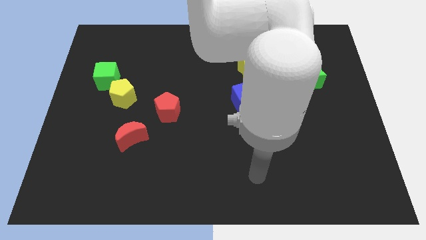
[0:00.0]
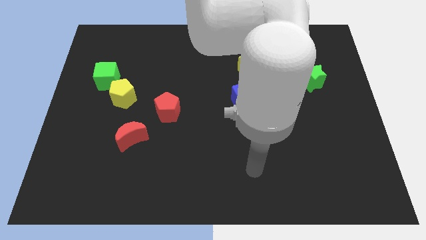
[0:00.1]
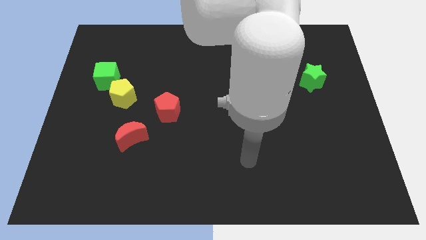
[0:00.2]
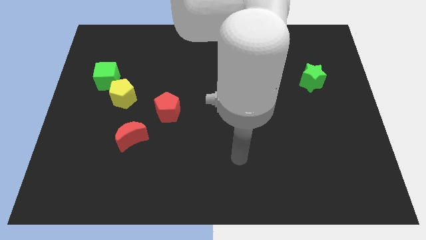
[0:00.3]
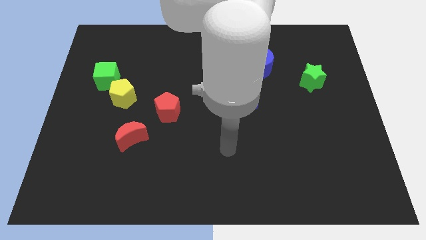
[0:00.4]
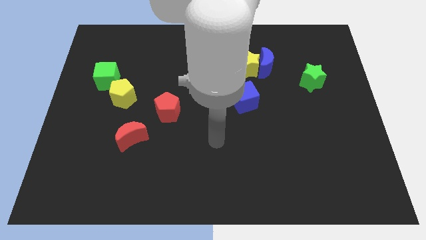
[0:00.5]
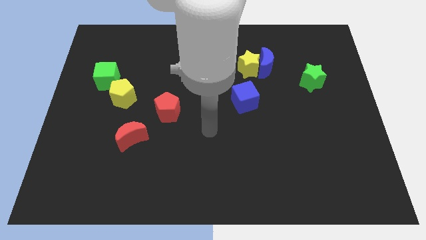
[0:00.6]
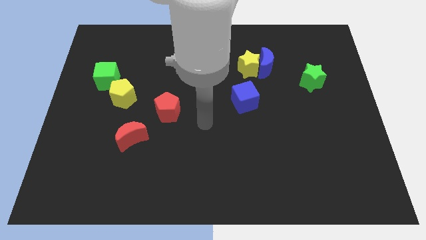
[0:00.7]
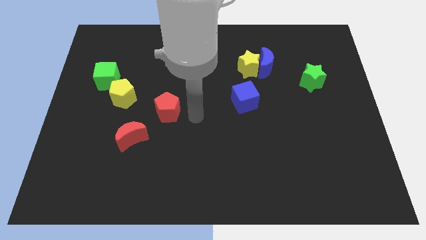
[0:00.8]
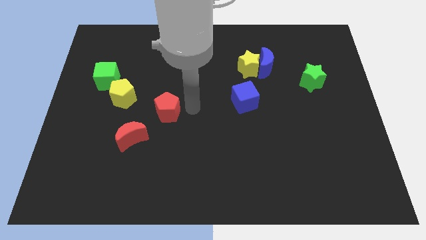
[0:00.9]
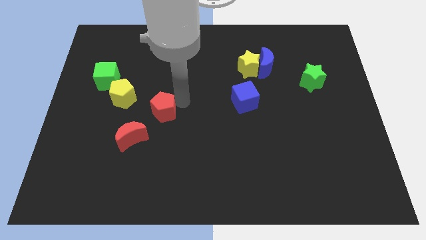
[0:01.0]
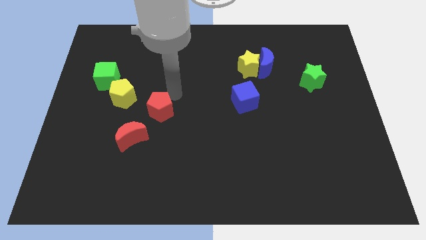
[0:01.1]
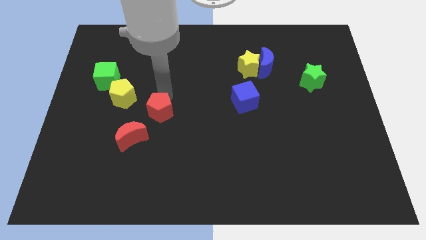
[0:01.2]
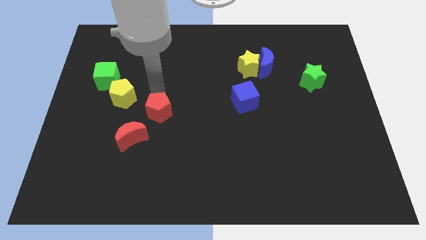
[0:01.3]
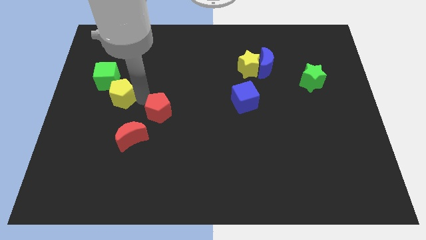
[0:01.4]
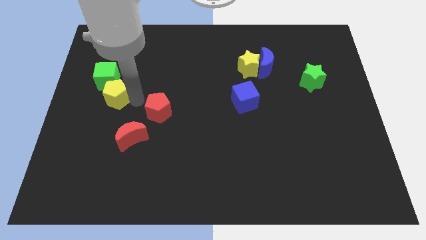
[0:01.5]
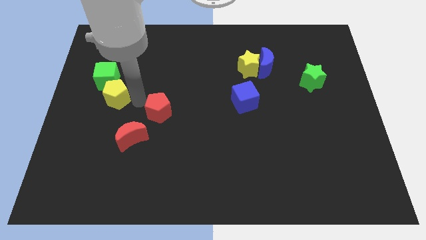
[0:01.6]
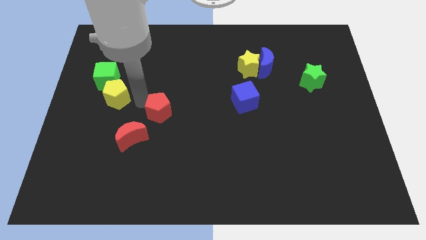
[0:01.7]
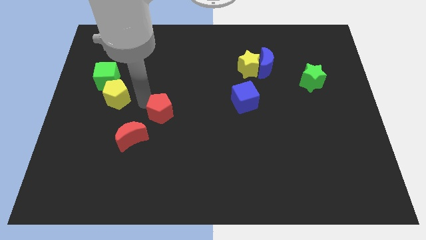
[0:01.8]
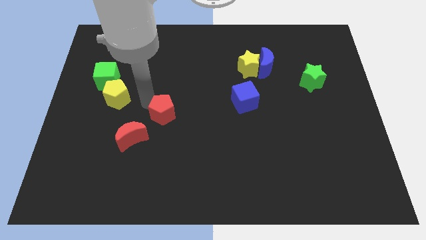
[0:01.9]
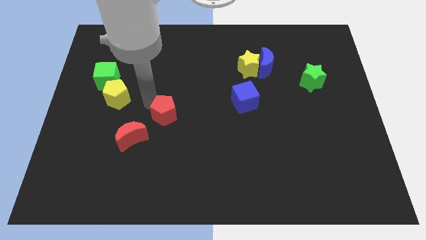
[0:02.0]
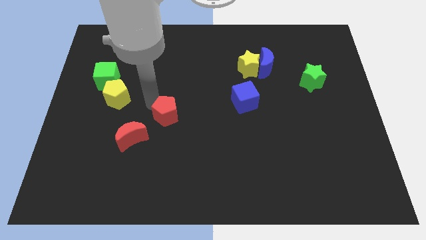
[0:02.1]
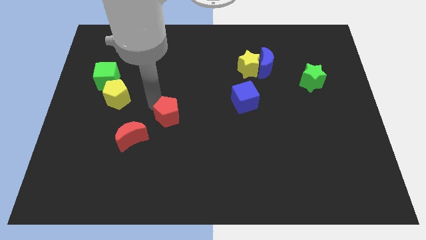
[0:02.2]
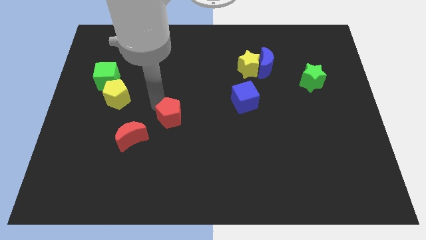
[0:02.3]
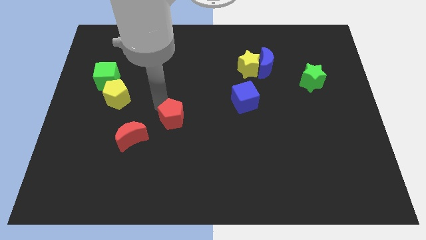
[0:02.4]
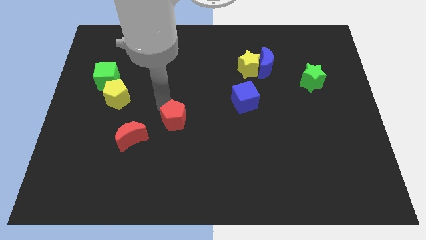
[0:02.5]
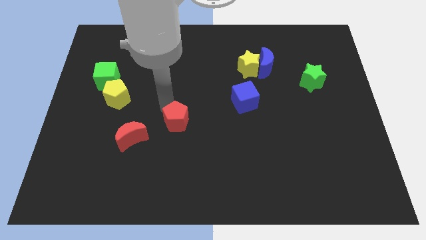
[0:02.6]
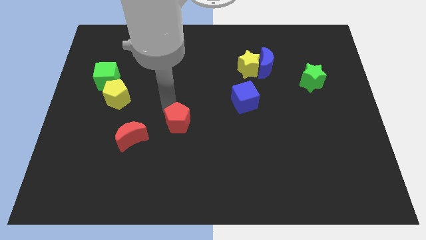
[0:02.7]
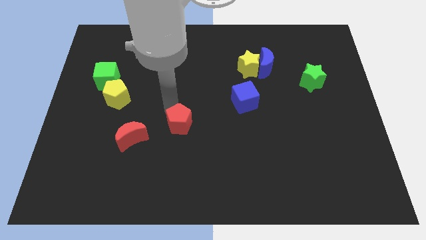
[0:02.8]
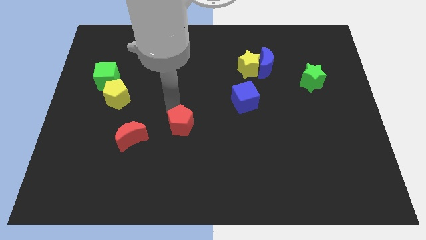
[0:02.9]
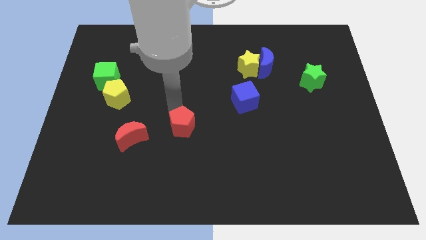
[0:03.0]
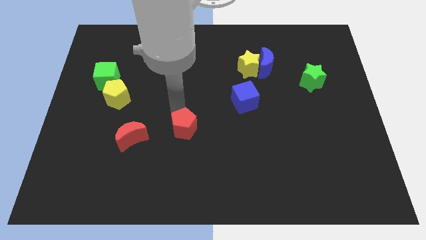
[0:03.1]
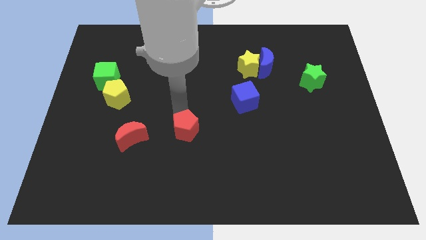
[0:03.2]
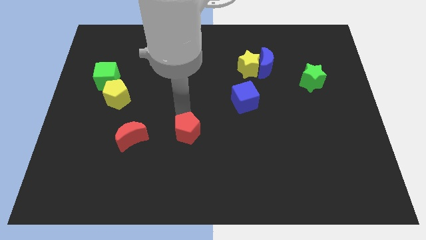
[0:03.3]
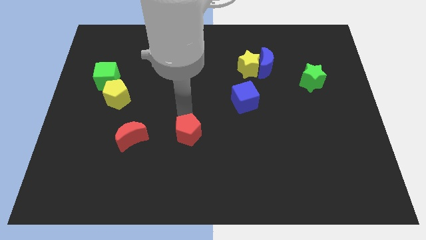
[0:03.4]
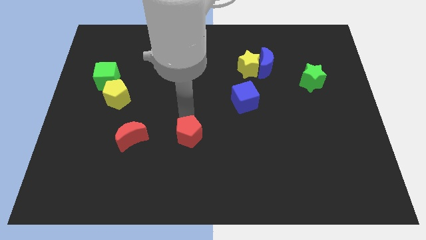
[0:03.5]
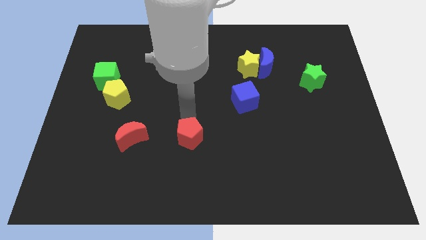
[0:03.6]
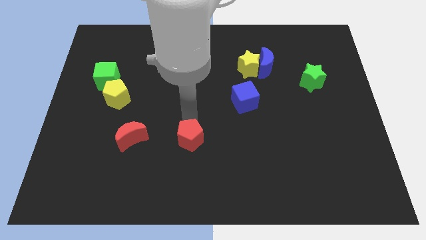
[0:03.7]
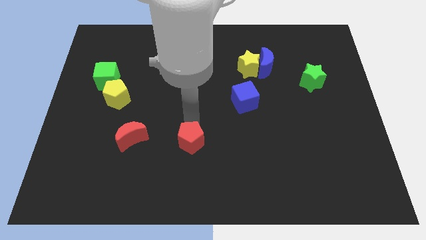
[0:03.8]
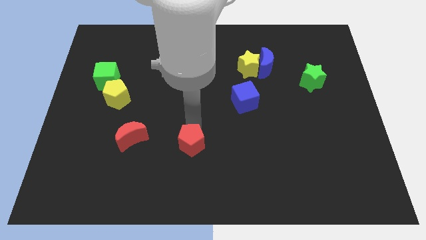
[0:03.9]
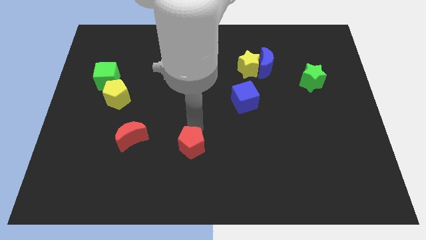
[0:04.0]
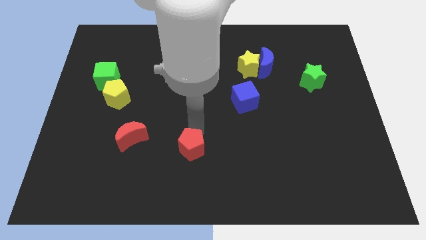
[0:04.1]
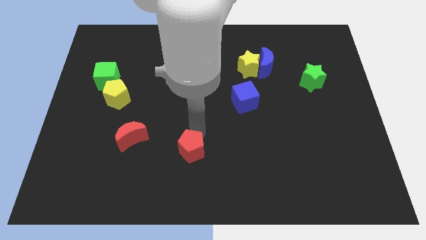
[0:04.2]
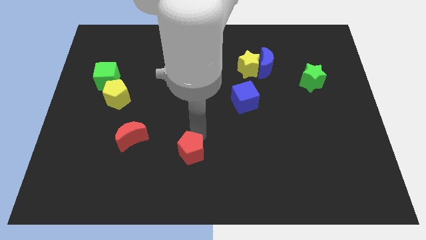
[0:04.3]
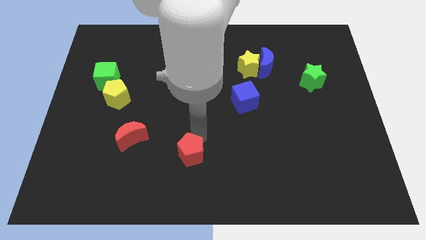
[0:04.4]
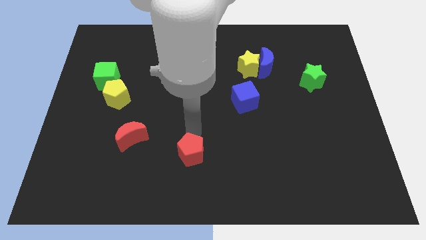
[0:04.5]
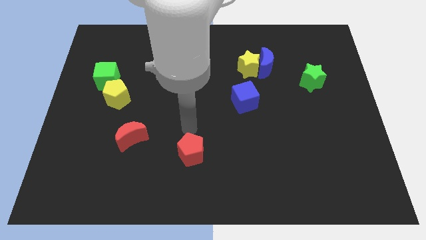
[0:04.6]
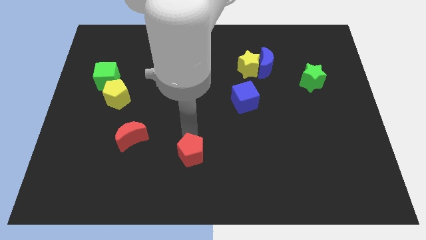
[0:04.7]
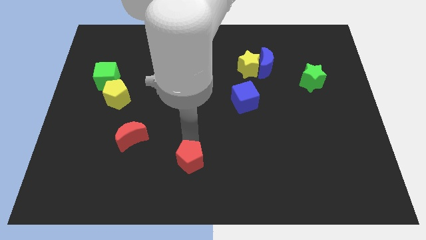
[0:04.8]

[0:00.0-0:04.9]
move the red pentagon to the bottom side

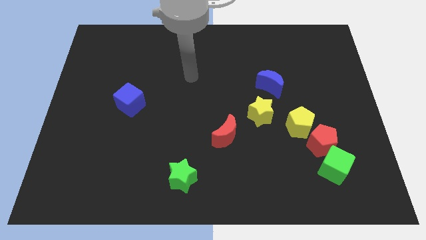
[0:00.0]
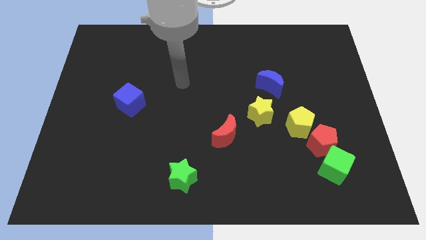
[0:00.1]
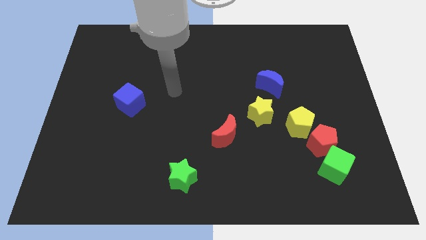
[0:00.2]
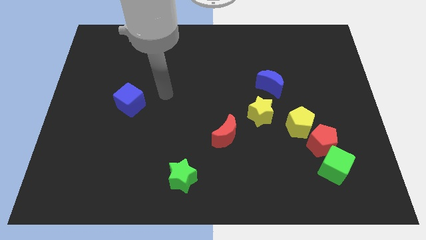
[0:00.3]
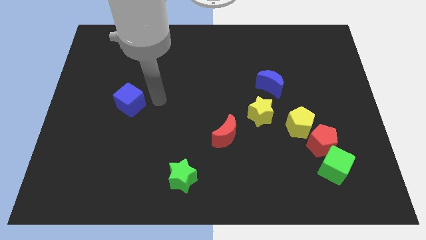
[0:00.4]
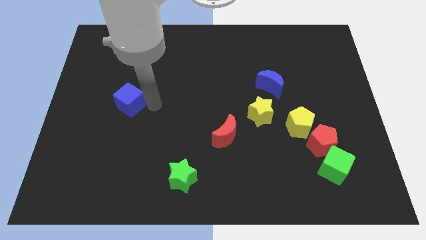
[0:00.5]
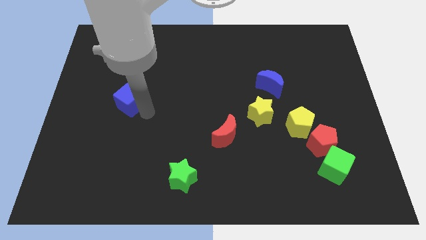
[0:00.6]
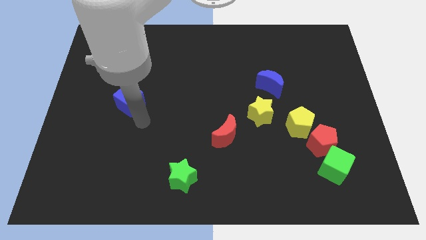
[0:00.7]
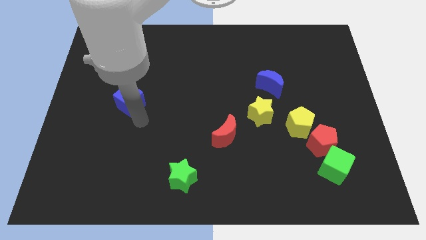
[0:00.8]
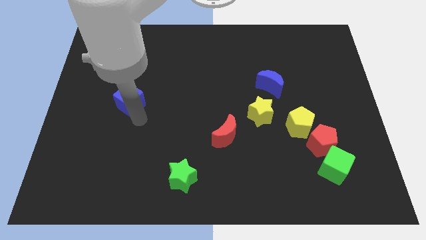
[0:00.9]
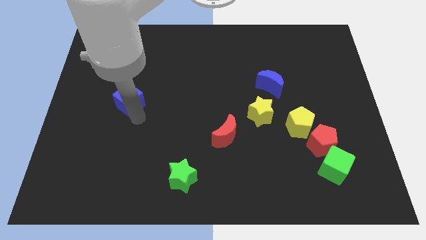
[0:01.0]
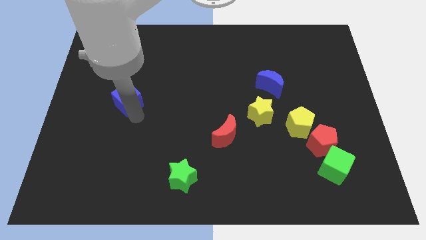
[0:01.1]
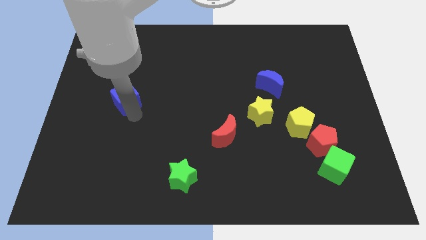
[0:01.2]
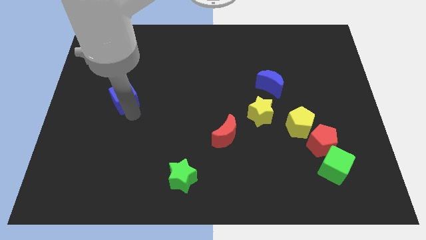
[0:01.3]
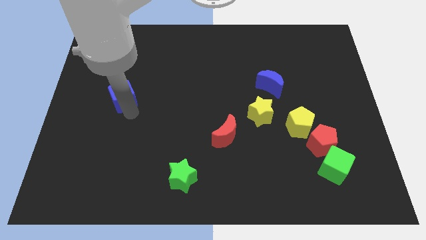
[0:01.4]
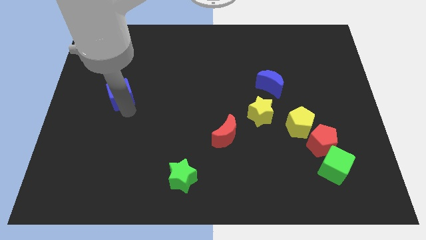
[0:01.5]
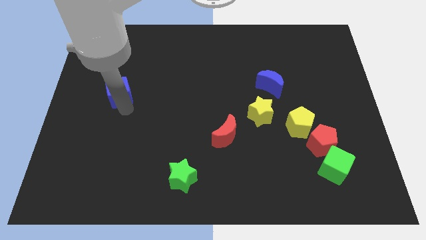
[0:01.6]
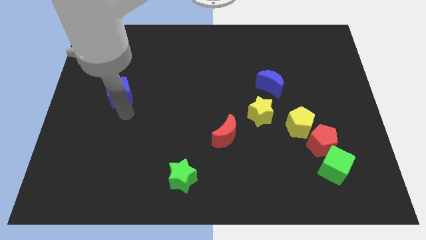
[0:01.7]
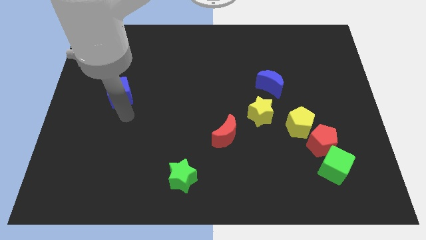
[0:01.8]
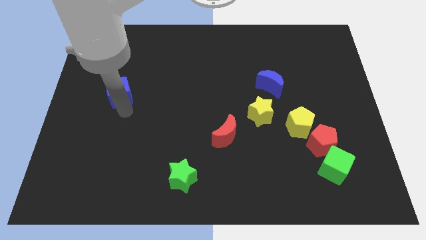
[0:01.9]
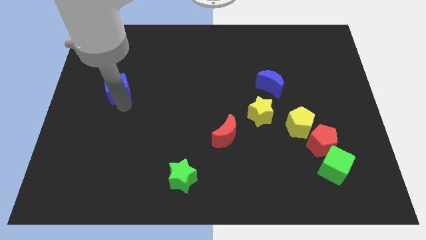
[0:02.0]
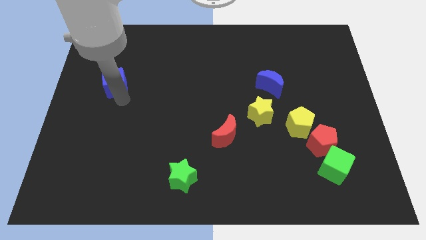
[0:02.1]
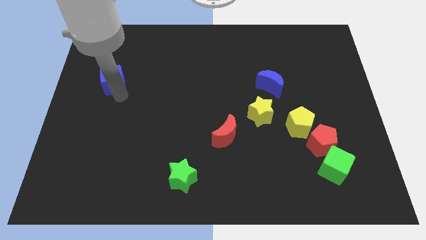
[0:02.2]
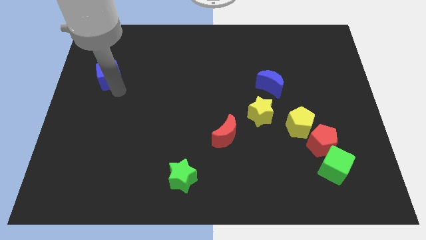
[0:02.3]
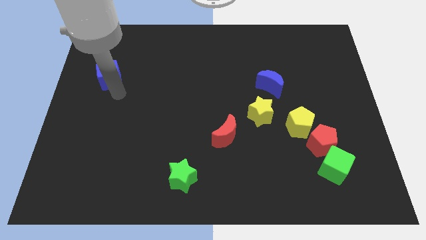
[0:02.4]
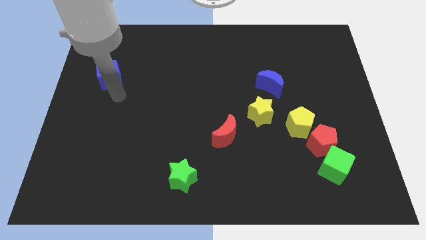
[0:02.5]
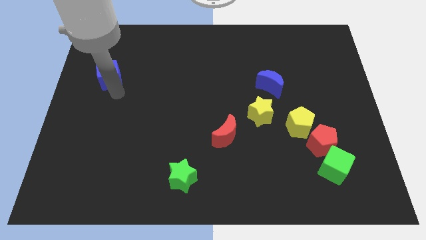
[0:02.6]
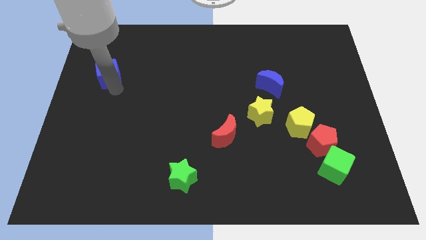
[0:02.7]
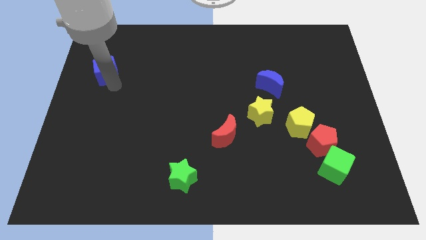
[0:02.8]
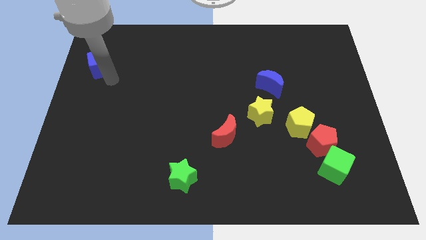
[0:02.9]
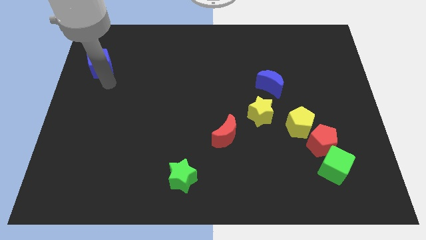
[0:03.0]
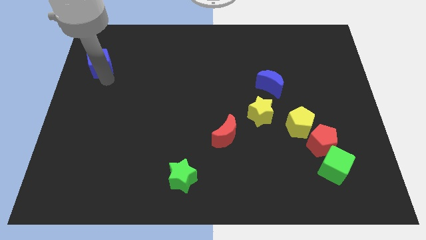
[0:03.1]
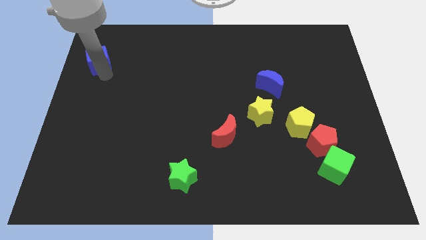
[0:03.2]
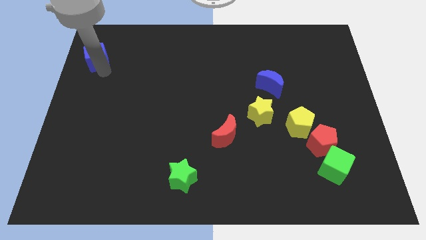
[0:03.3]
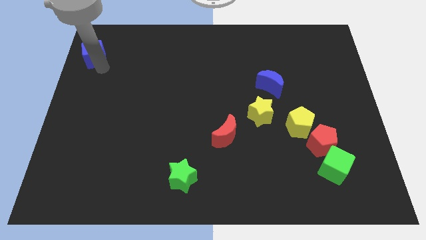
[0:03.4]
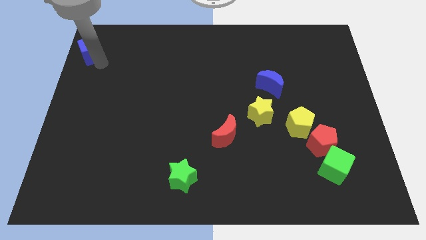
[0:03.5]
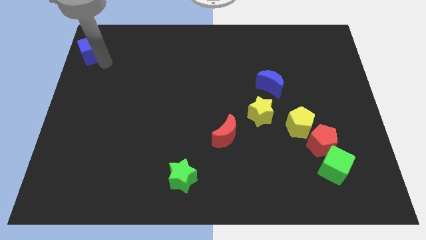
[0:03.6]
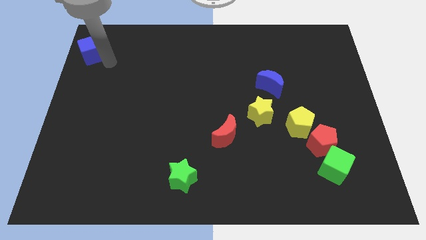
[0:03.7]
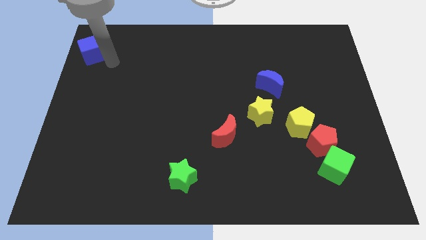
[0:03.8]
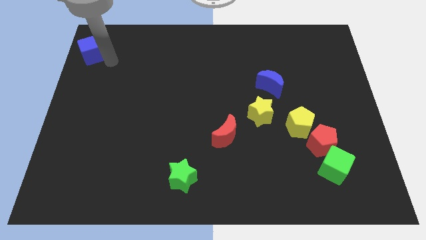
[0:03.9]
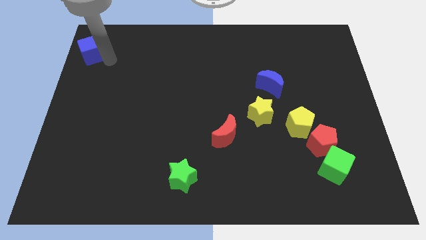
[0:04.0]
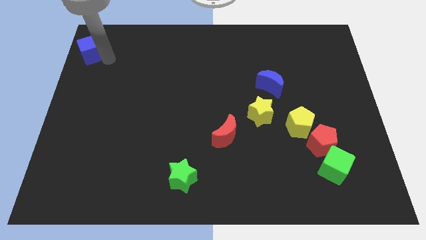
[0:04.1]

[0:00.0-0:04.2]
put the blue cube to the top left
